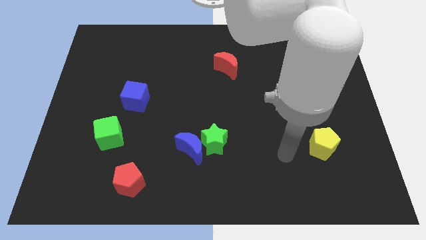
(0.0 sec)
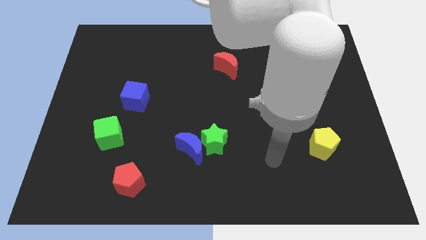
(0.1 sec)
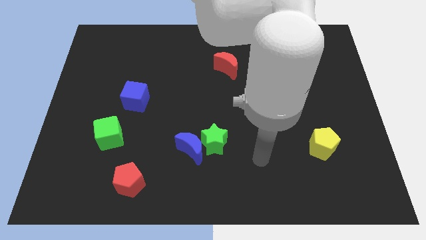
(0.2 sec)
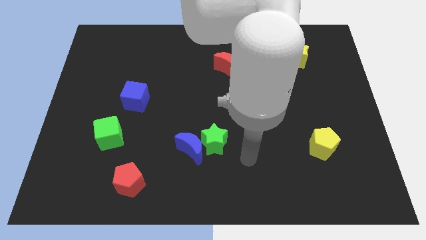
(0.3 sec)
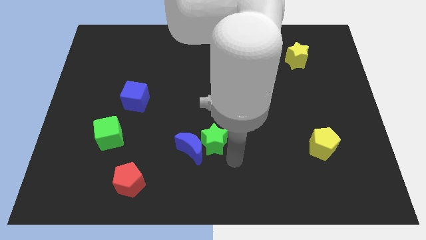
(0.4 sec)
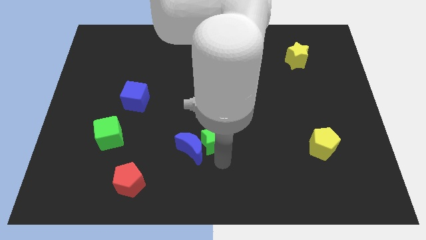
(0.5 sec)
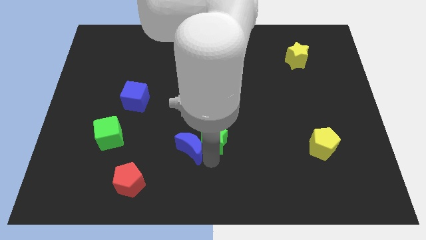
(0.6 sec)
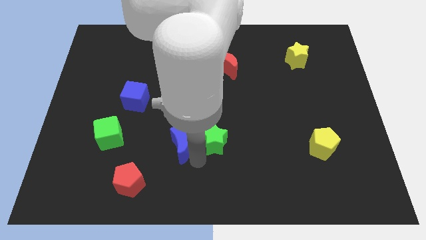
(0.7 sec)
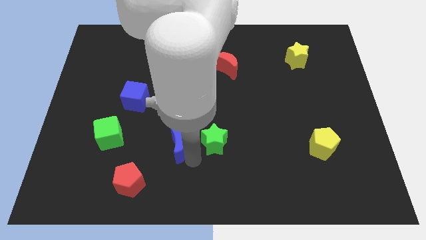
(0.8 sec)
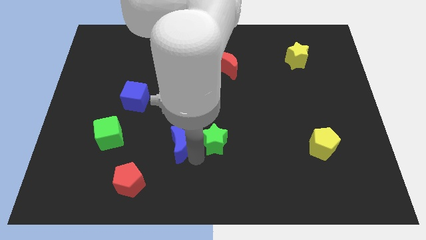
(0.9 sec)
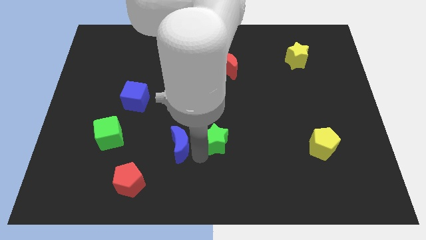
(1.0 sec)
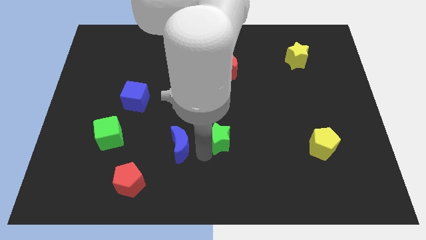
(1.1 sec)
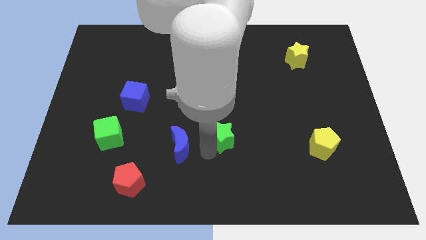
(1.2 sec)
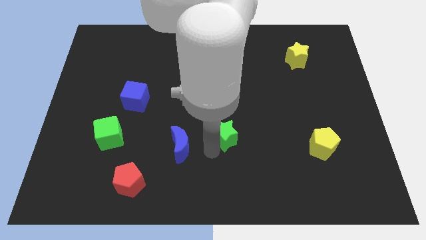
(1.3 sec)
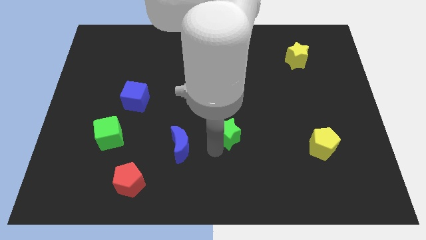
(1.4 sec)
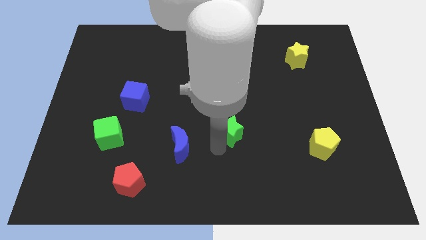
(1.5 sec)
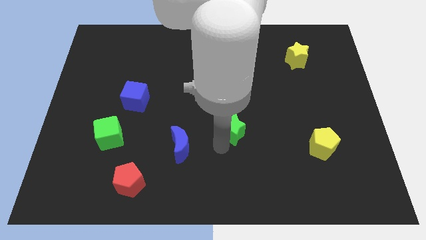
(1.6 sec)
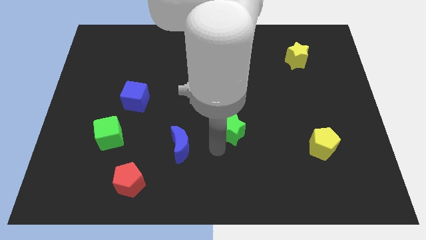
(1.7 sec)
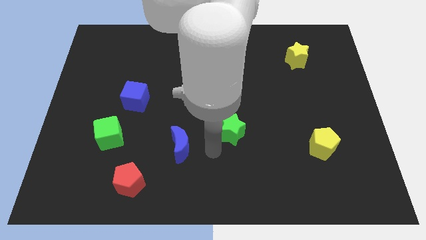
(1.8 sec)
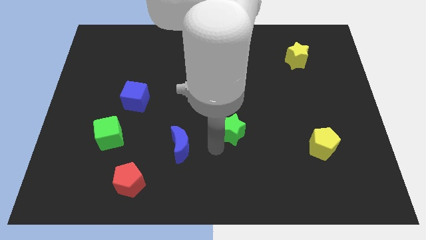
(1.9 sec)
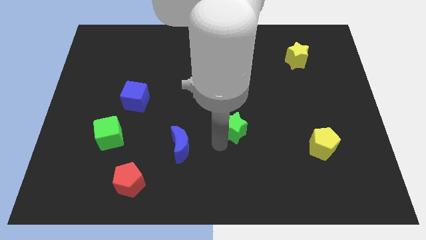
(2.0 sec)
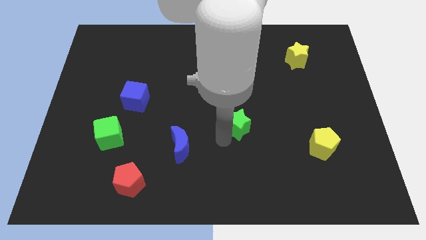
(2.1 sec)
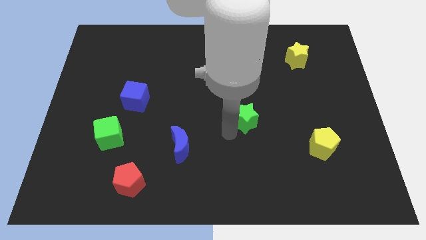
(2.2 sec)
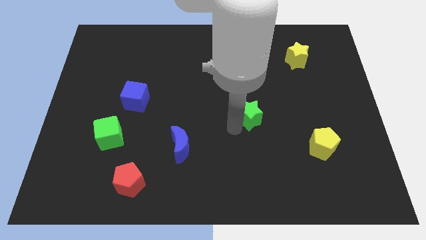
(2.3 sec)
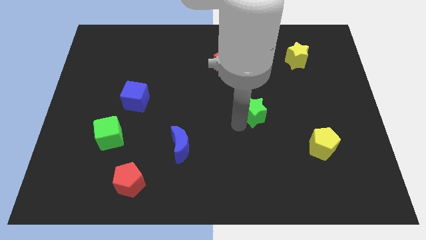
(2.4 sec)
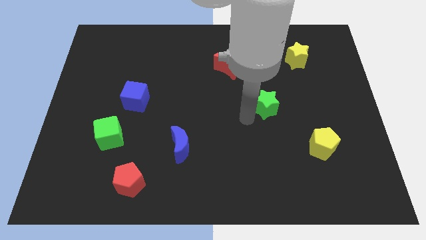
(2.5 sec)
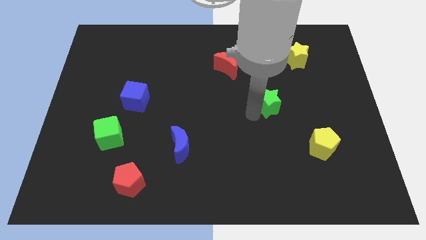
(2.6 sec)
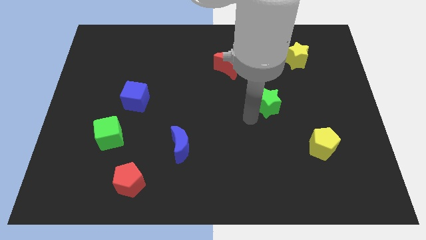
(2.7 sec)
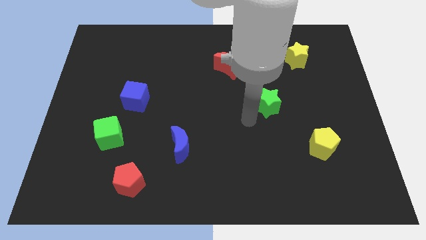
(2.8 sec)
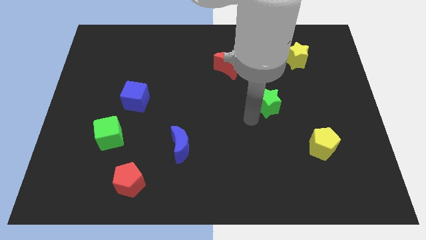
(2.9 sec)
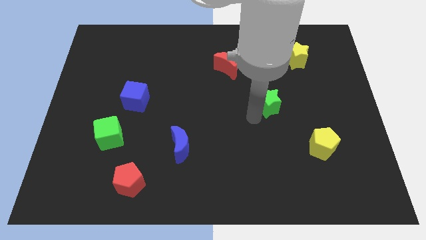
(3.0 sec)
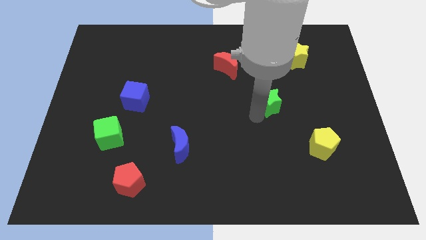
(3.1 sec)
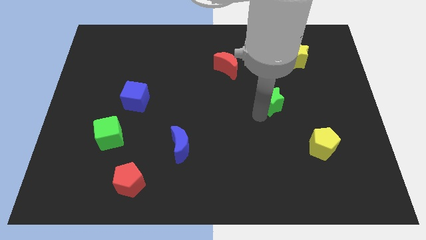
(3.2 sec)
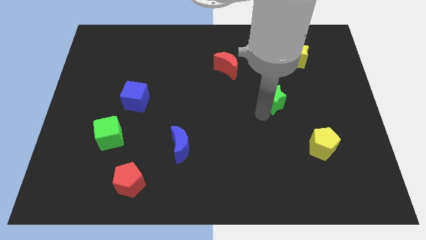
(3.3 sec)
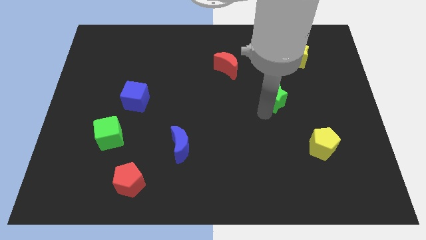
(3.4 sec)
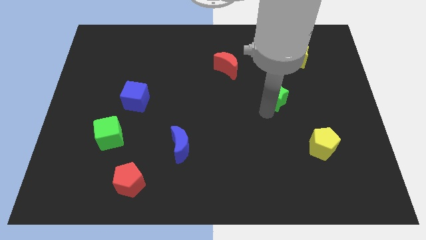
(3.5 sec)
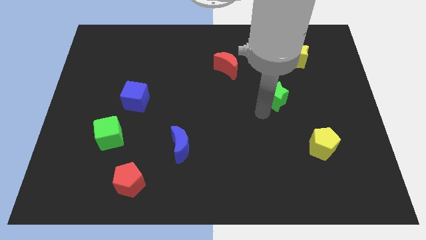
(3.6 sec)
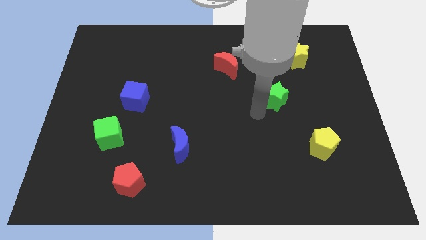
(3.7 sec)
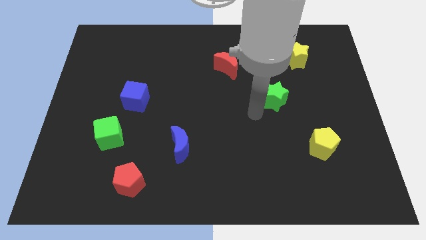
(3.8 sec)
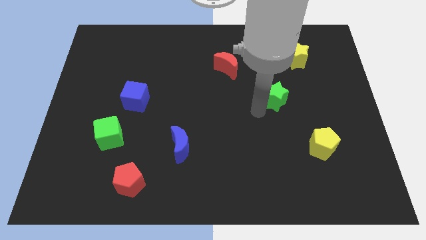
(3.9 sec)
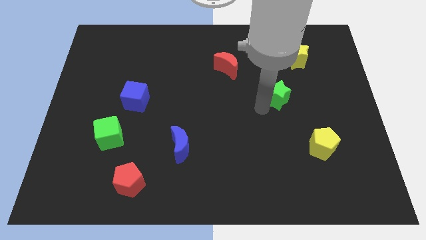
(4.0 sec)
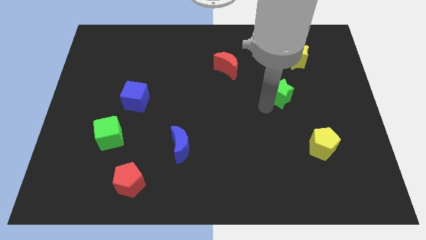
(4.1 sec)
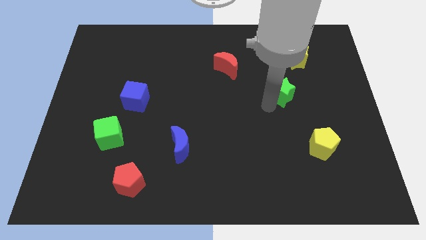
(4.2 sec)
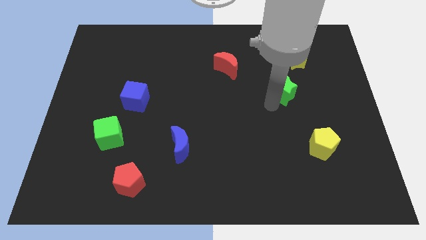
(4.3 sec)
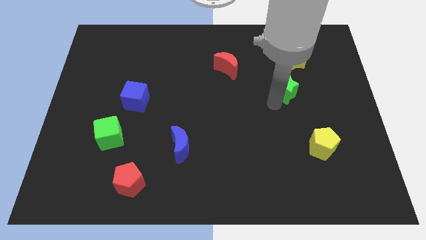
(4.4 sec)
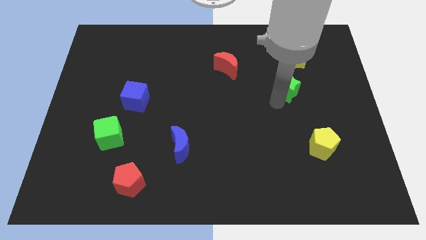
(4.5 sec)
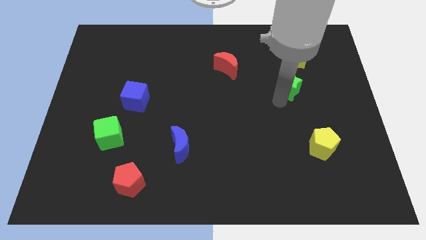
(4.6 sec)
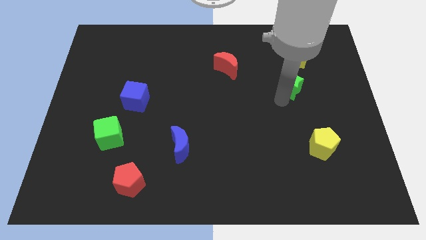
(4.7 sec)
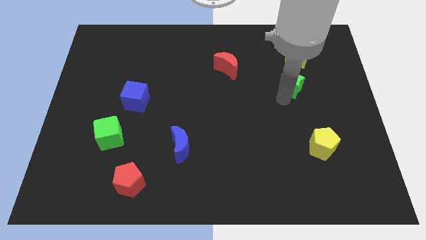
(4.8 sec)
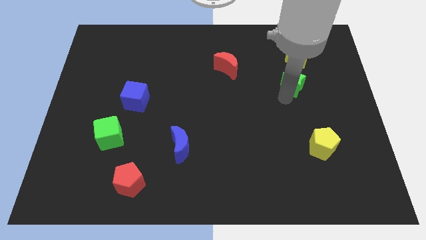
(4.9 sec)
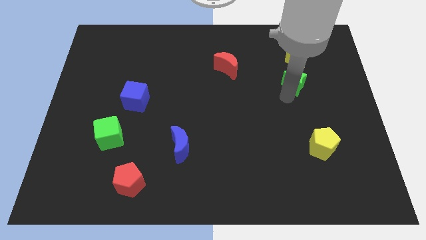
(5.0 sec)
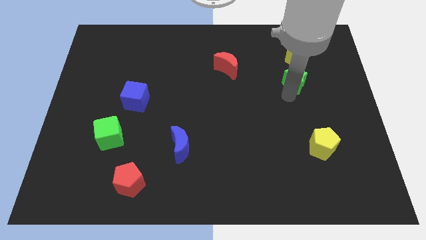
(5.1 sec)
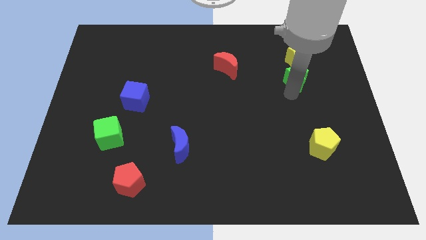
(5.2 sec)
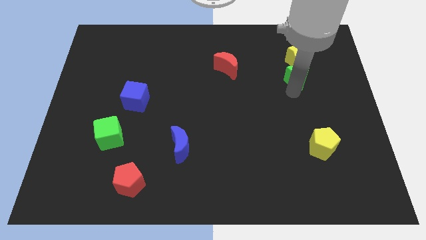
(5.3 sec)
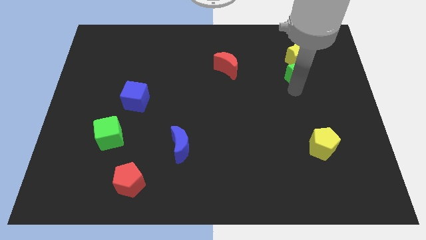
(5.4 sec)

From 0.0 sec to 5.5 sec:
move the green star to the yellow star

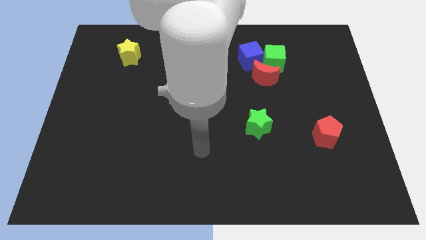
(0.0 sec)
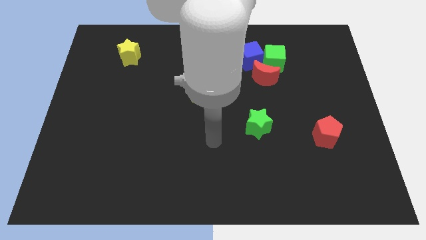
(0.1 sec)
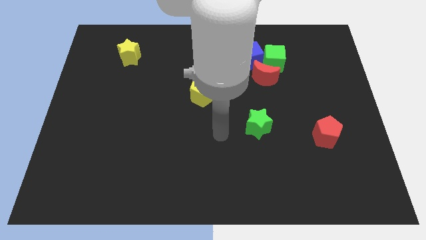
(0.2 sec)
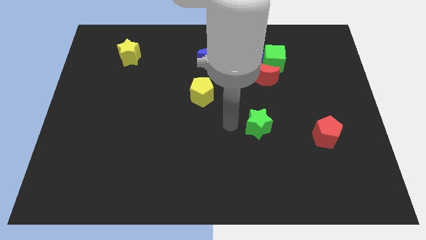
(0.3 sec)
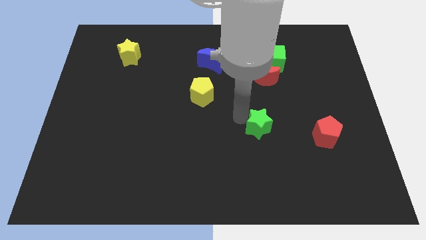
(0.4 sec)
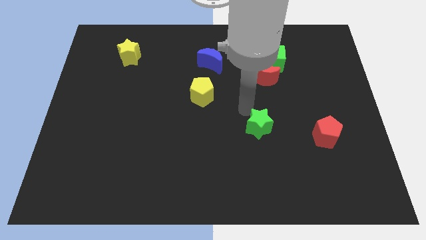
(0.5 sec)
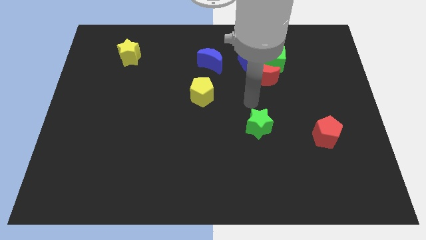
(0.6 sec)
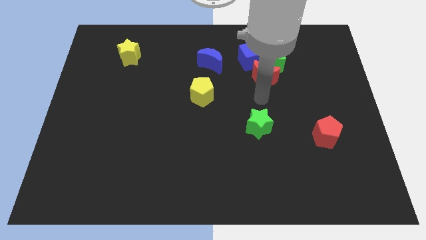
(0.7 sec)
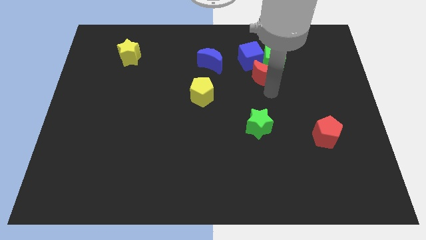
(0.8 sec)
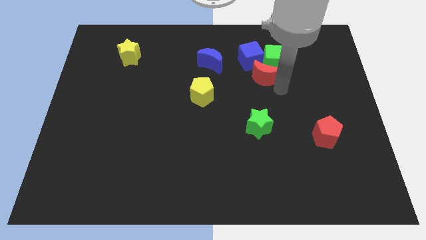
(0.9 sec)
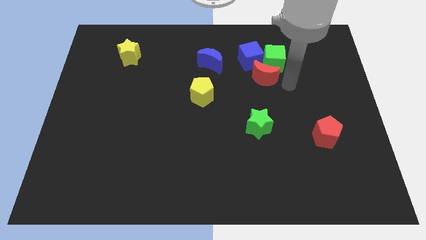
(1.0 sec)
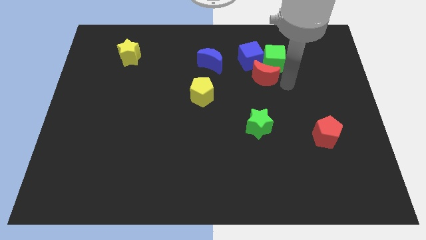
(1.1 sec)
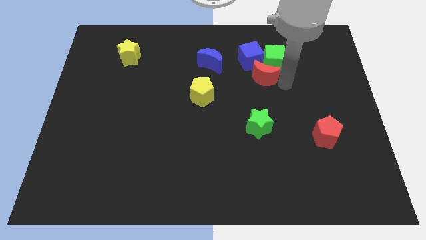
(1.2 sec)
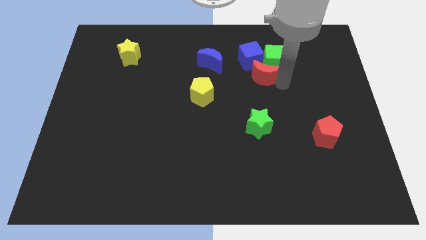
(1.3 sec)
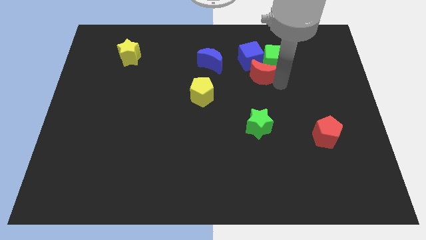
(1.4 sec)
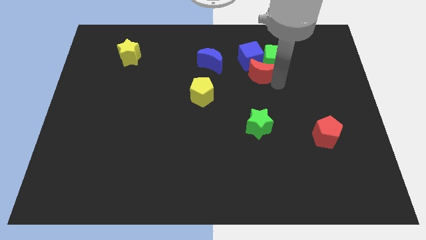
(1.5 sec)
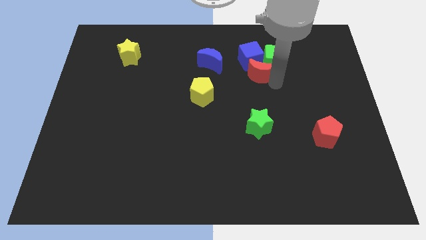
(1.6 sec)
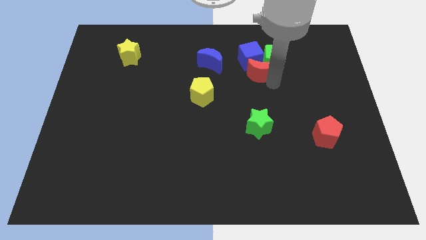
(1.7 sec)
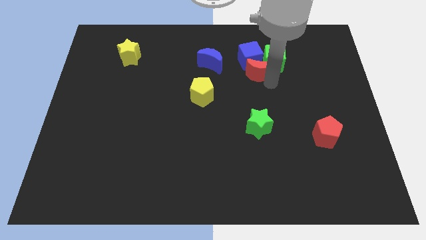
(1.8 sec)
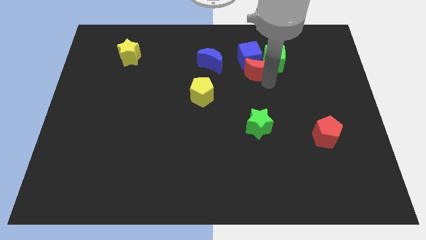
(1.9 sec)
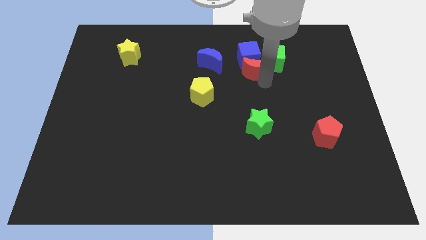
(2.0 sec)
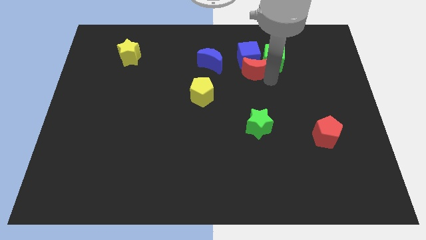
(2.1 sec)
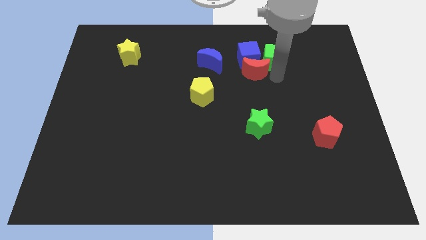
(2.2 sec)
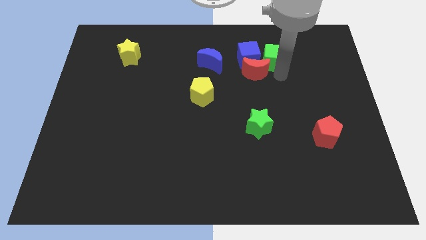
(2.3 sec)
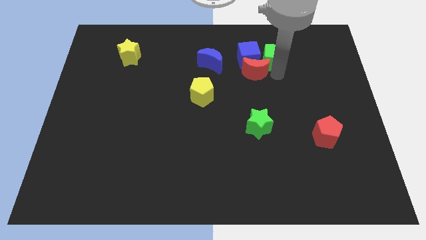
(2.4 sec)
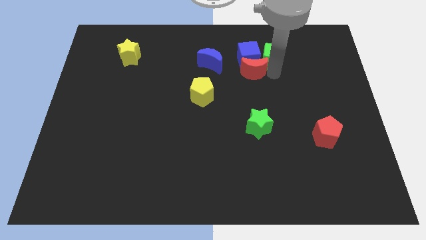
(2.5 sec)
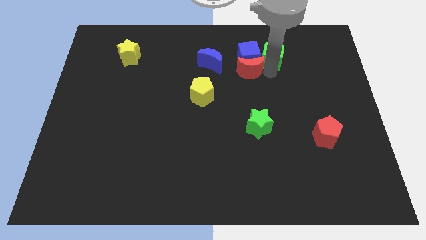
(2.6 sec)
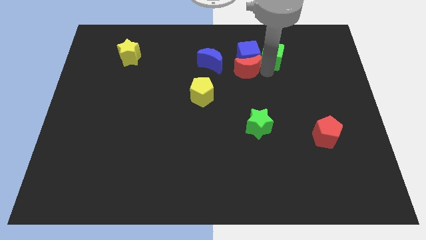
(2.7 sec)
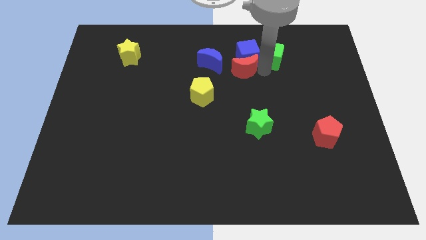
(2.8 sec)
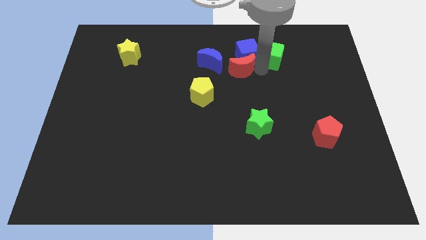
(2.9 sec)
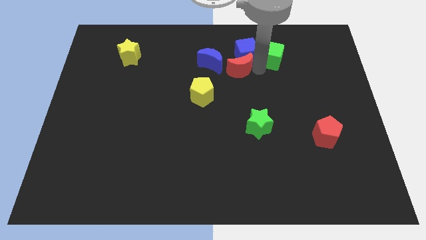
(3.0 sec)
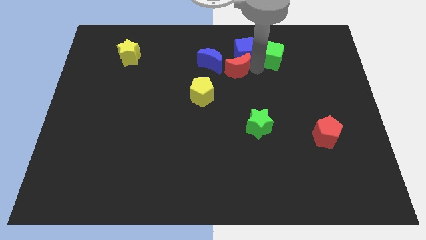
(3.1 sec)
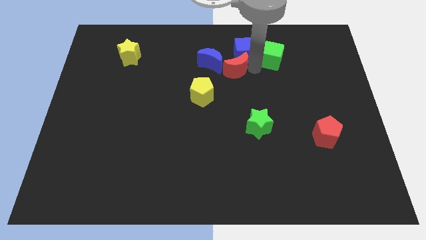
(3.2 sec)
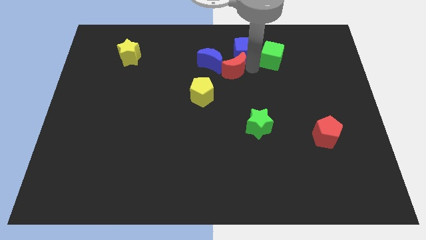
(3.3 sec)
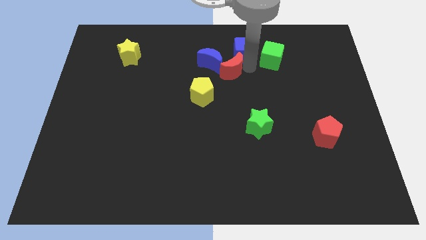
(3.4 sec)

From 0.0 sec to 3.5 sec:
slide the red moon towards the blue moon
